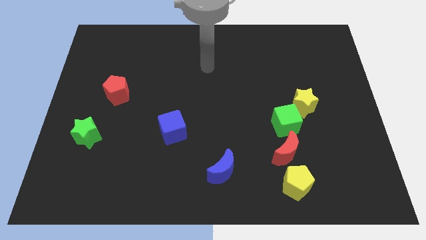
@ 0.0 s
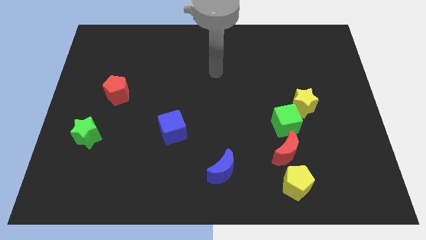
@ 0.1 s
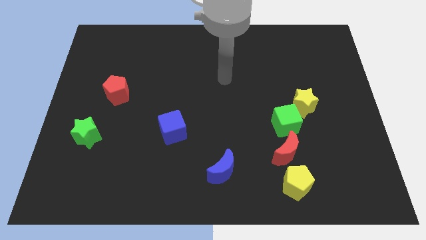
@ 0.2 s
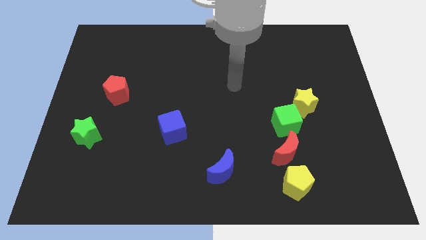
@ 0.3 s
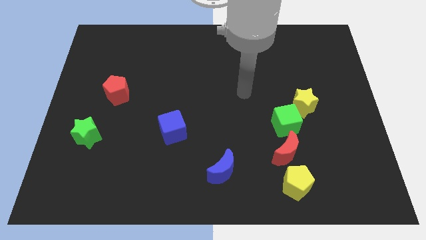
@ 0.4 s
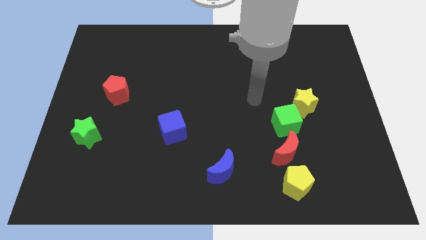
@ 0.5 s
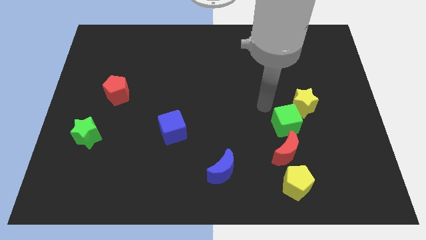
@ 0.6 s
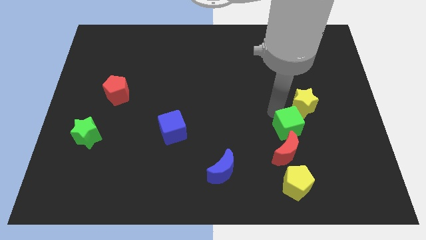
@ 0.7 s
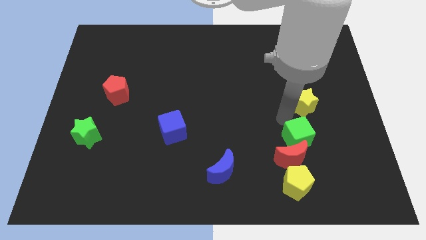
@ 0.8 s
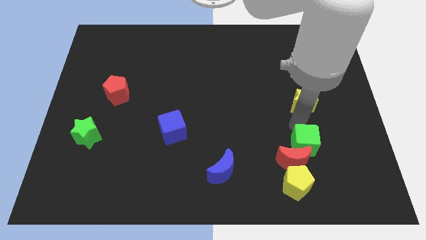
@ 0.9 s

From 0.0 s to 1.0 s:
move the yellow star away from the green cube

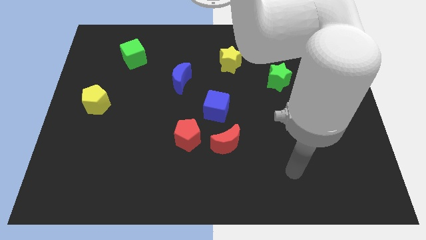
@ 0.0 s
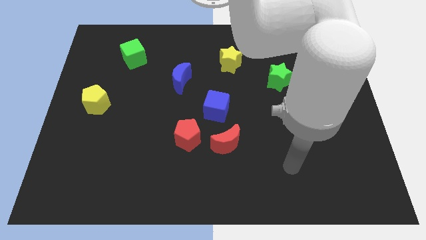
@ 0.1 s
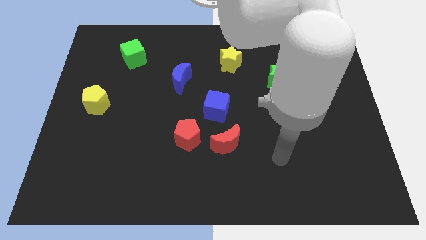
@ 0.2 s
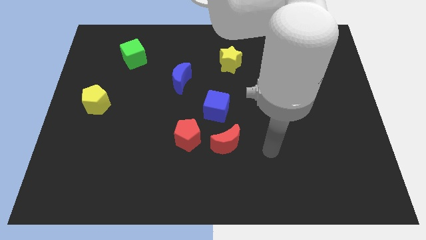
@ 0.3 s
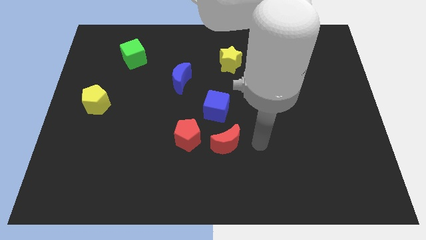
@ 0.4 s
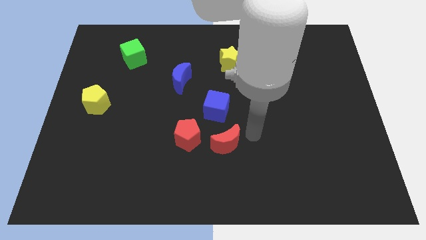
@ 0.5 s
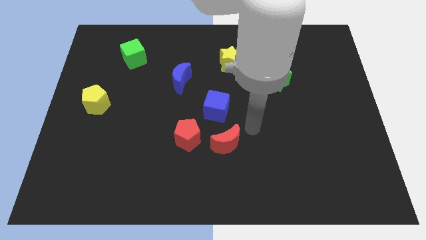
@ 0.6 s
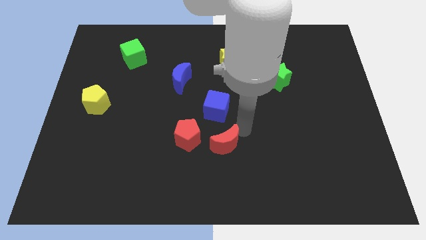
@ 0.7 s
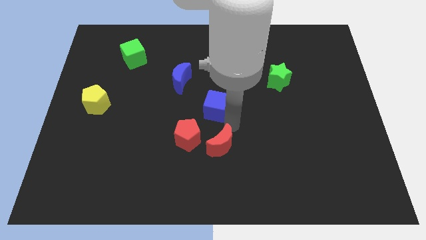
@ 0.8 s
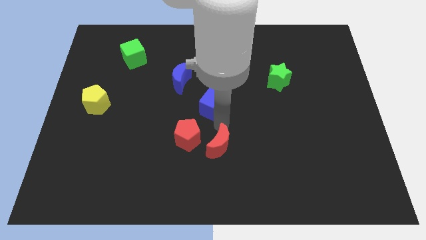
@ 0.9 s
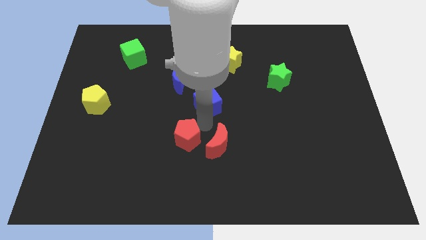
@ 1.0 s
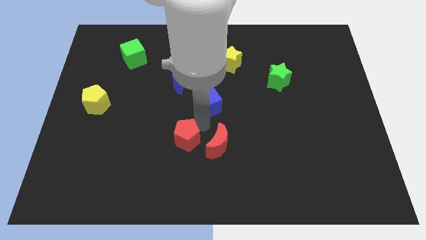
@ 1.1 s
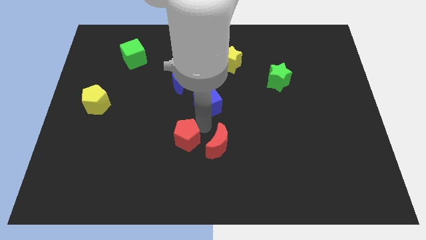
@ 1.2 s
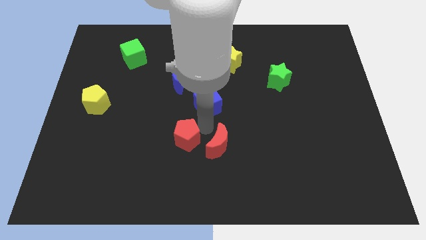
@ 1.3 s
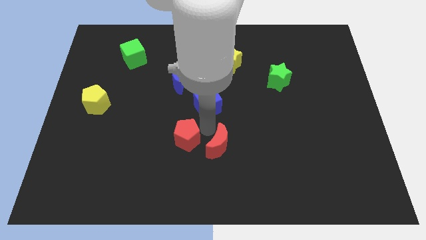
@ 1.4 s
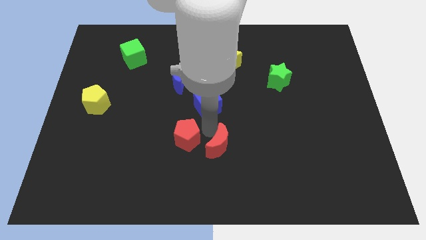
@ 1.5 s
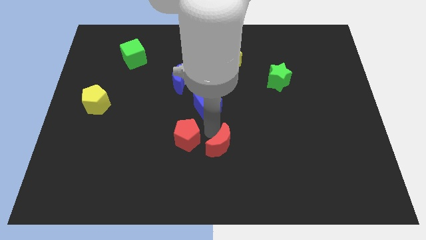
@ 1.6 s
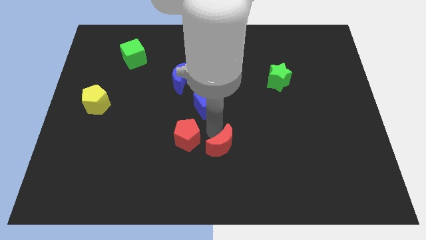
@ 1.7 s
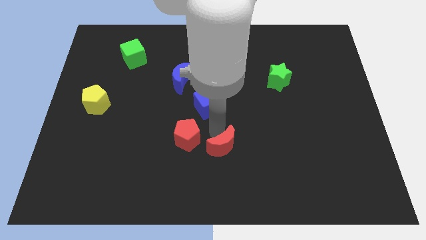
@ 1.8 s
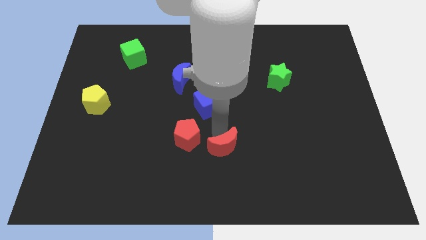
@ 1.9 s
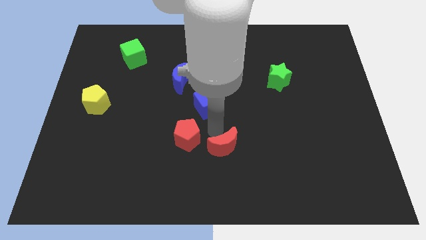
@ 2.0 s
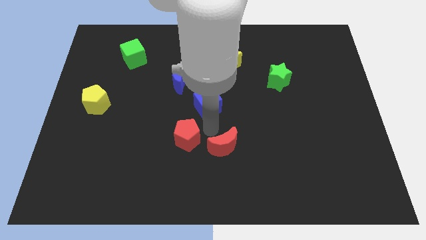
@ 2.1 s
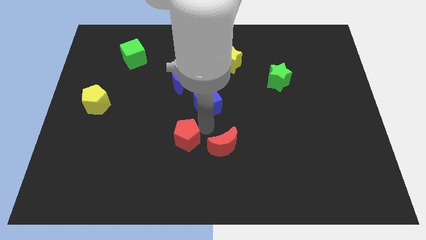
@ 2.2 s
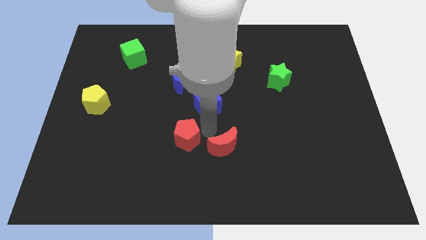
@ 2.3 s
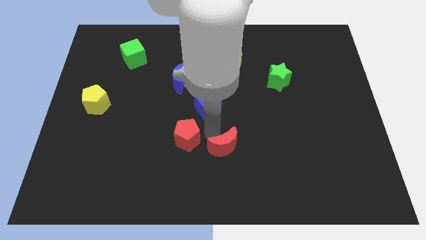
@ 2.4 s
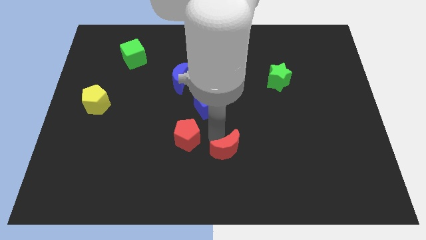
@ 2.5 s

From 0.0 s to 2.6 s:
pull the red moon apart from the red pentagon and blue cube

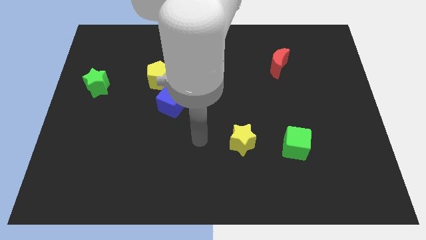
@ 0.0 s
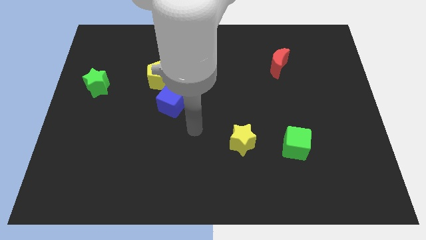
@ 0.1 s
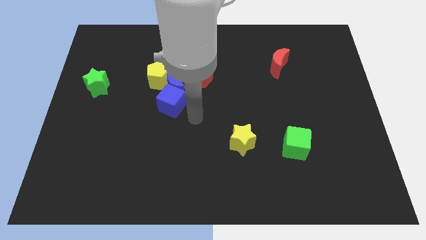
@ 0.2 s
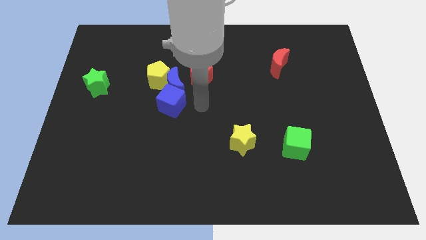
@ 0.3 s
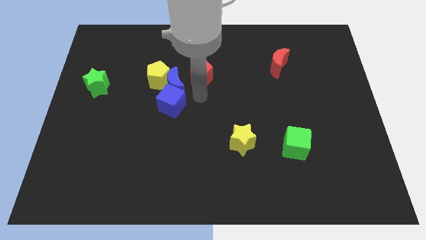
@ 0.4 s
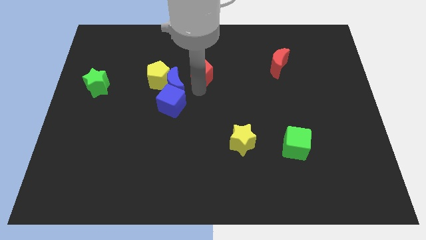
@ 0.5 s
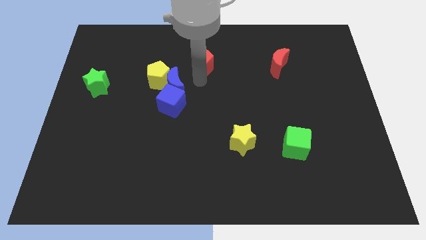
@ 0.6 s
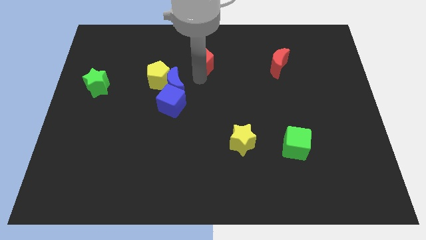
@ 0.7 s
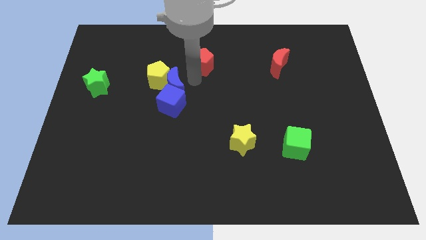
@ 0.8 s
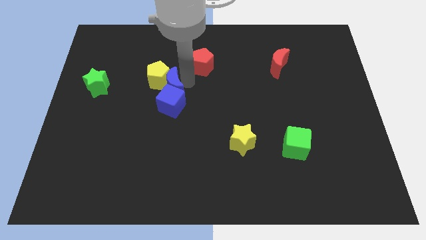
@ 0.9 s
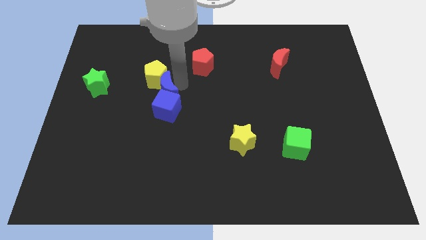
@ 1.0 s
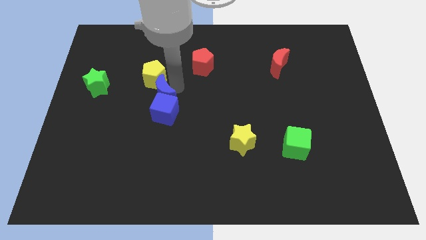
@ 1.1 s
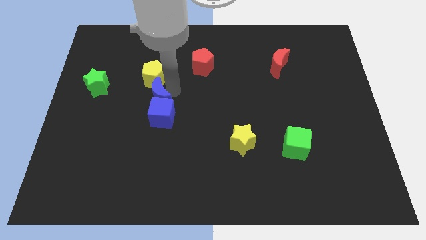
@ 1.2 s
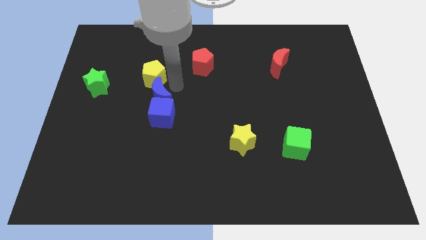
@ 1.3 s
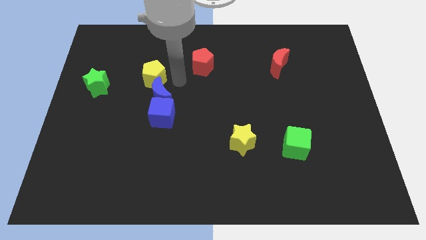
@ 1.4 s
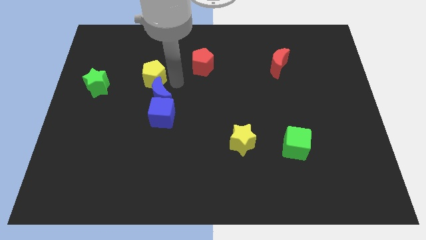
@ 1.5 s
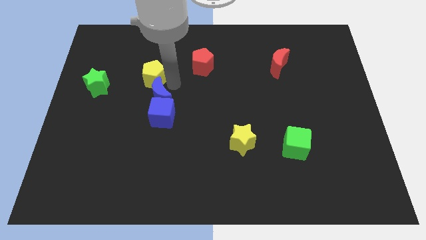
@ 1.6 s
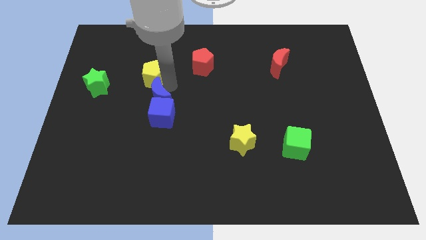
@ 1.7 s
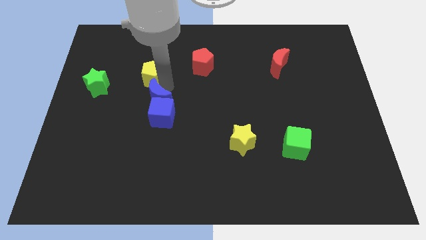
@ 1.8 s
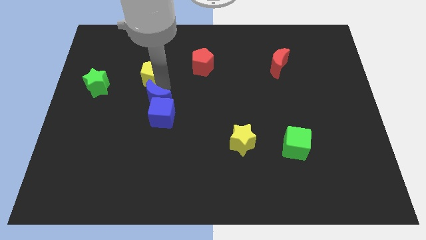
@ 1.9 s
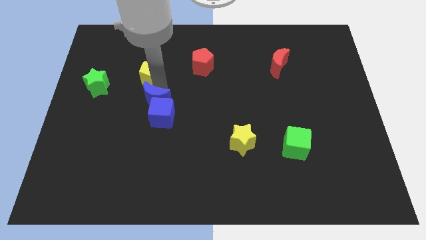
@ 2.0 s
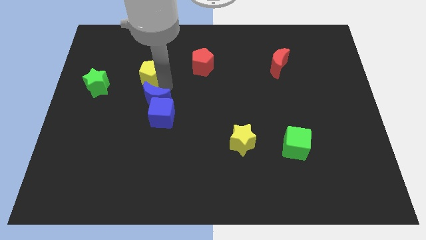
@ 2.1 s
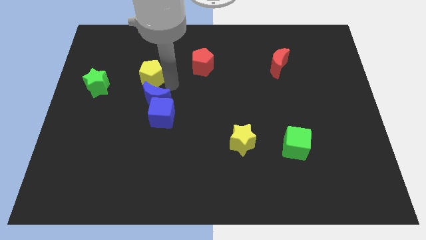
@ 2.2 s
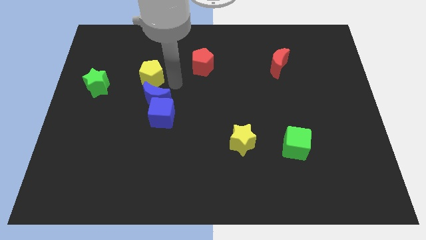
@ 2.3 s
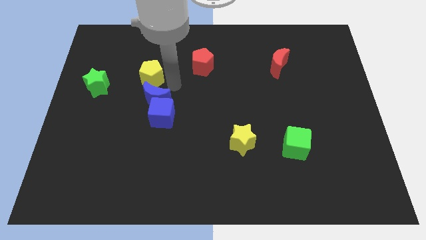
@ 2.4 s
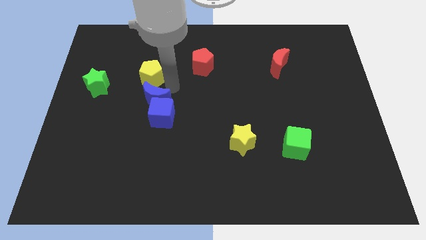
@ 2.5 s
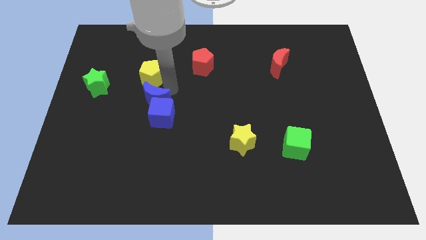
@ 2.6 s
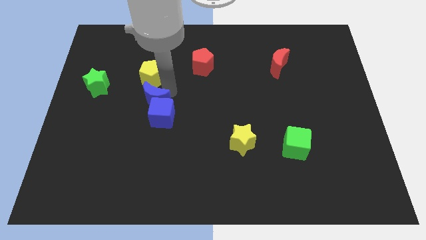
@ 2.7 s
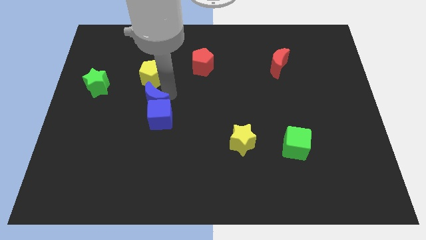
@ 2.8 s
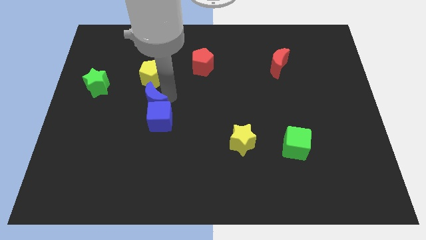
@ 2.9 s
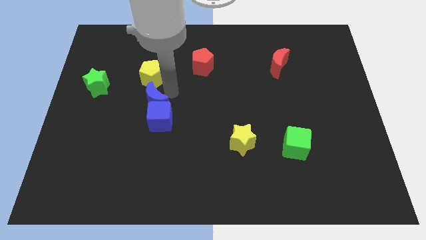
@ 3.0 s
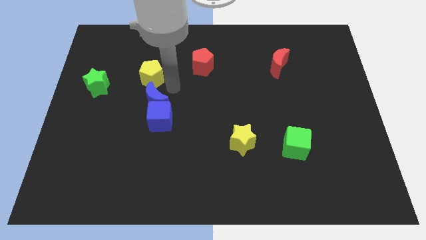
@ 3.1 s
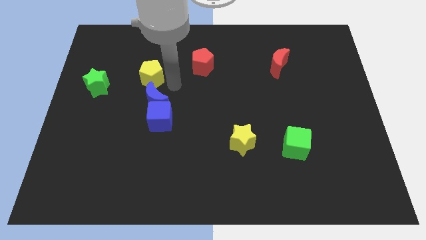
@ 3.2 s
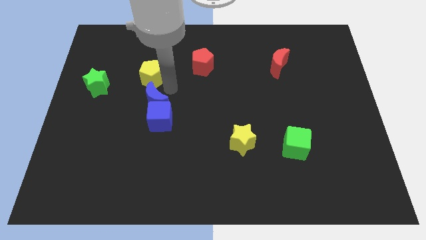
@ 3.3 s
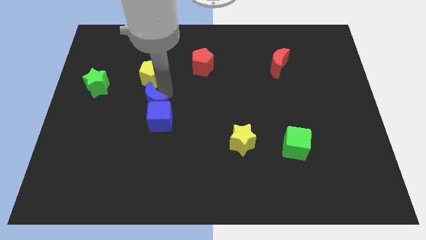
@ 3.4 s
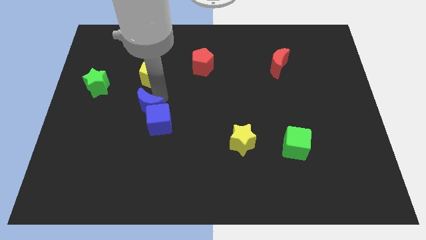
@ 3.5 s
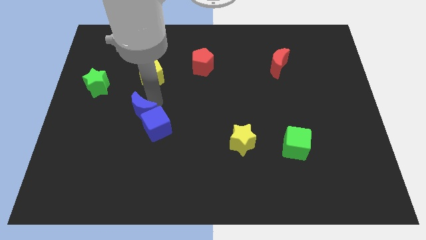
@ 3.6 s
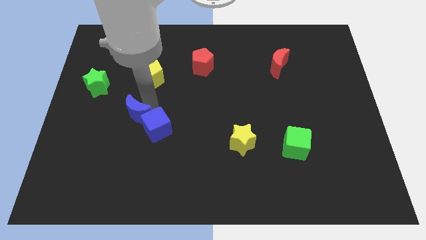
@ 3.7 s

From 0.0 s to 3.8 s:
move the blue moon away from the yellow pentagon, blue cube, and red pentagon

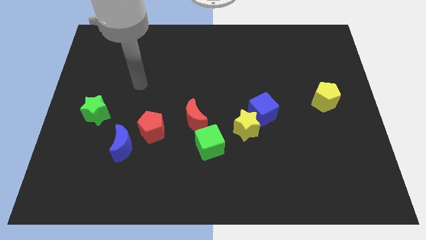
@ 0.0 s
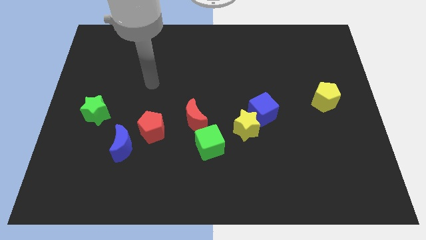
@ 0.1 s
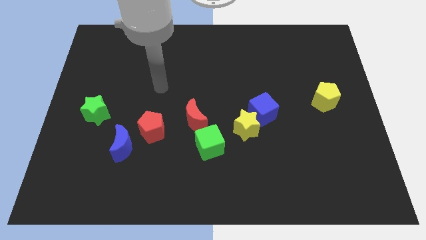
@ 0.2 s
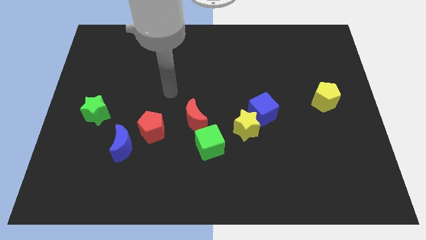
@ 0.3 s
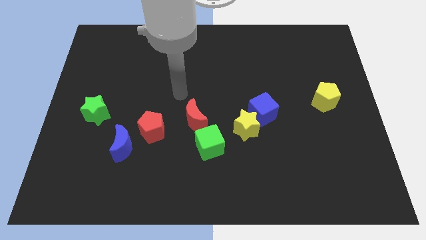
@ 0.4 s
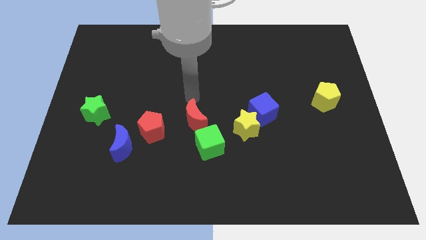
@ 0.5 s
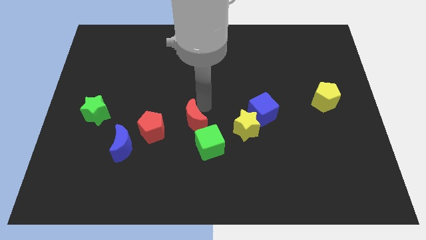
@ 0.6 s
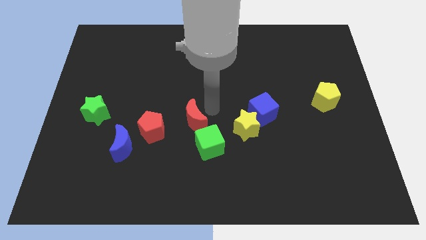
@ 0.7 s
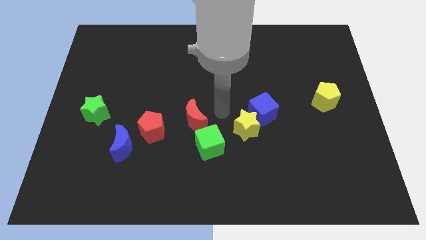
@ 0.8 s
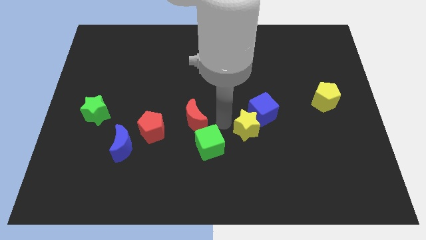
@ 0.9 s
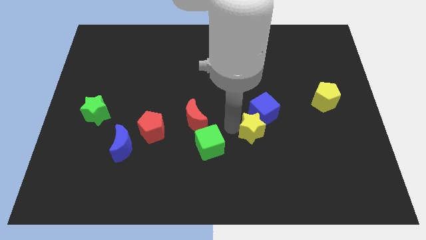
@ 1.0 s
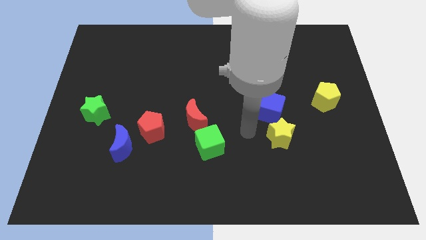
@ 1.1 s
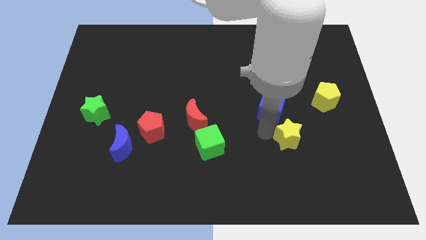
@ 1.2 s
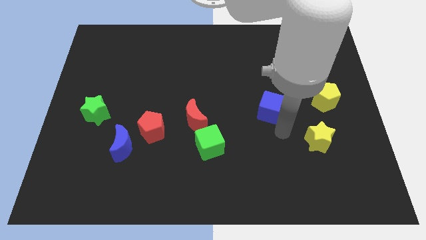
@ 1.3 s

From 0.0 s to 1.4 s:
move the blue cube away from the yellow star

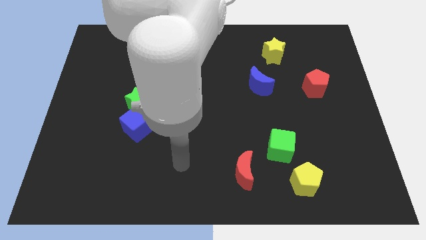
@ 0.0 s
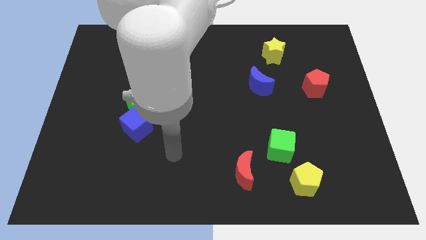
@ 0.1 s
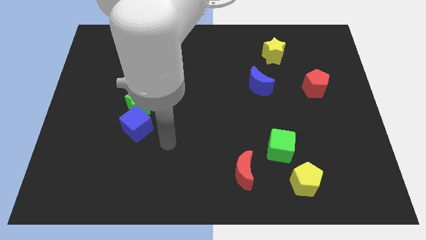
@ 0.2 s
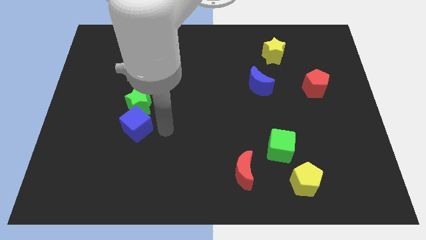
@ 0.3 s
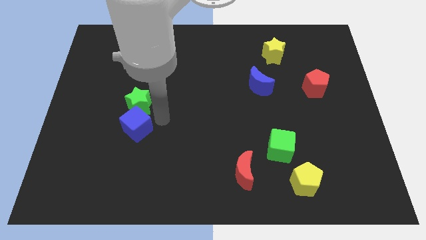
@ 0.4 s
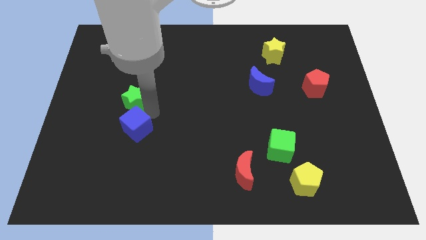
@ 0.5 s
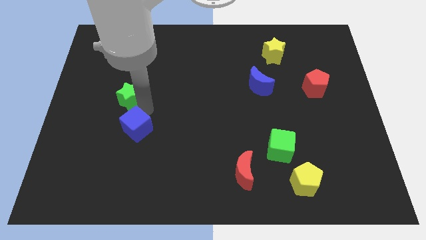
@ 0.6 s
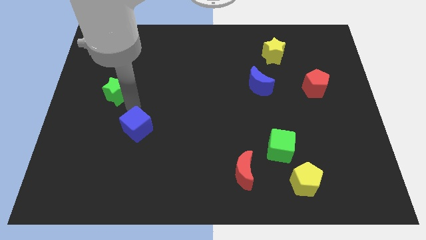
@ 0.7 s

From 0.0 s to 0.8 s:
move the blue cube away from the green star
